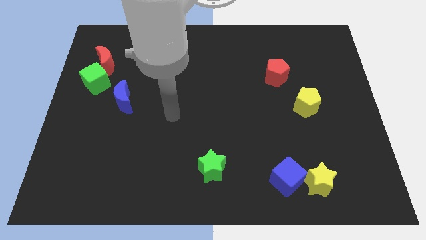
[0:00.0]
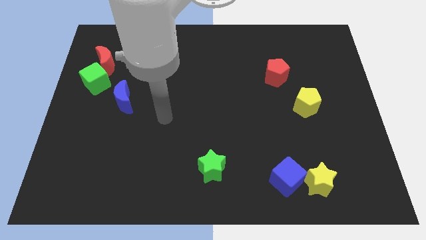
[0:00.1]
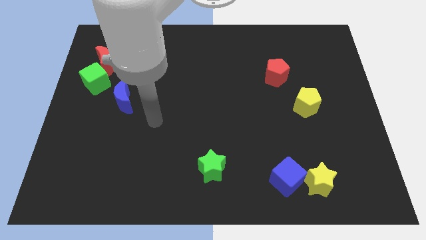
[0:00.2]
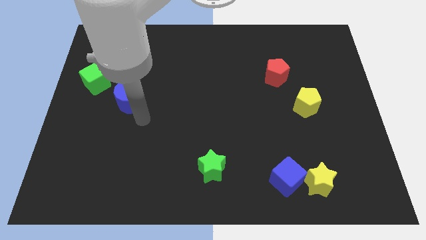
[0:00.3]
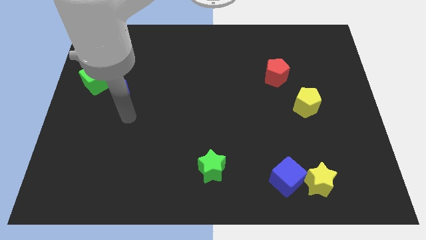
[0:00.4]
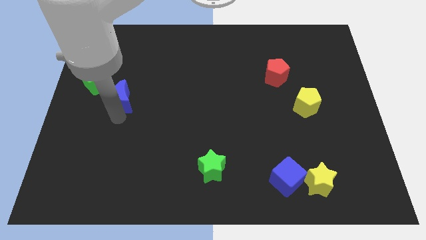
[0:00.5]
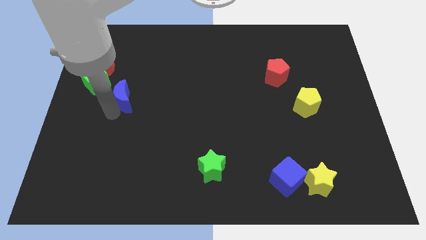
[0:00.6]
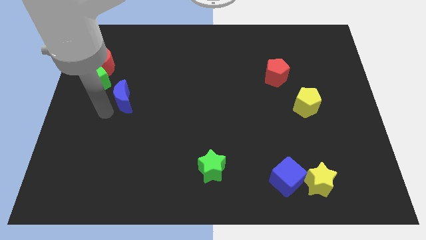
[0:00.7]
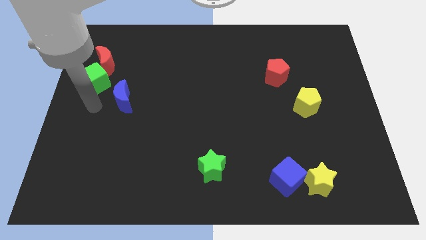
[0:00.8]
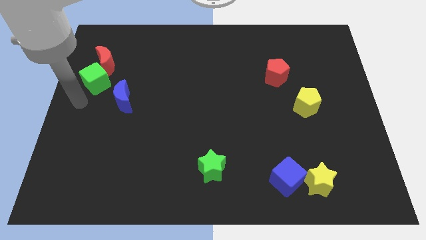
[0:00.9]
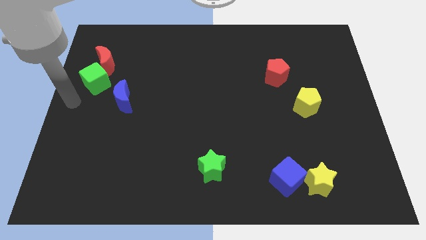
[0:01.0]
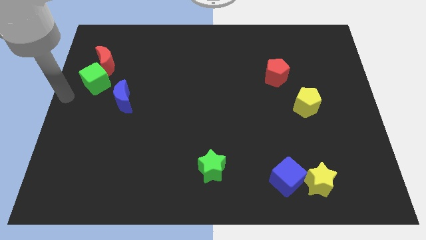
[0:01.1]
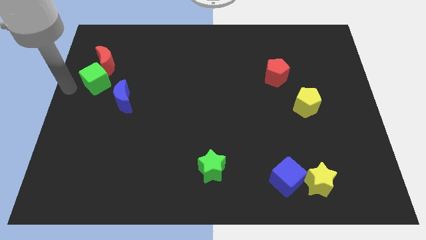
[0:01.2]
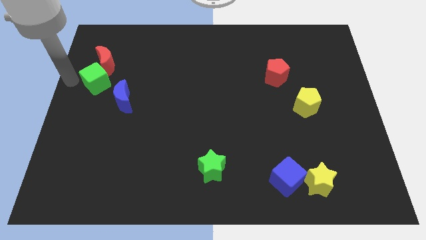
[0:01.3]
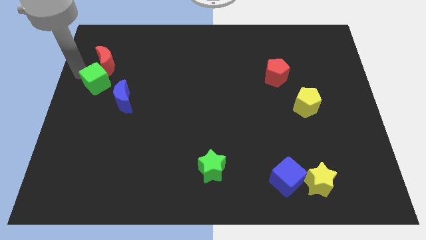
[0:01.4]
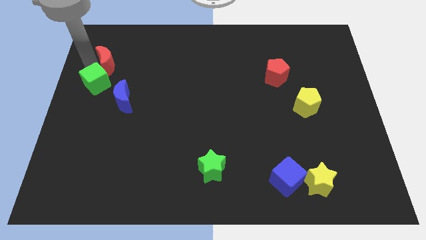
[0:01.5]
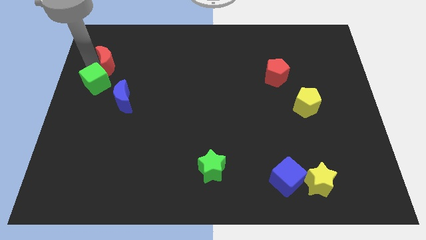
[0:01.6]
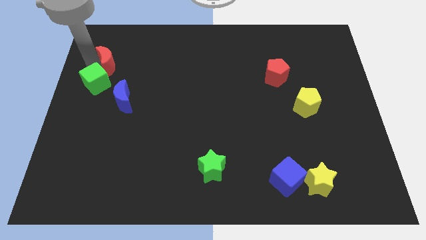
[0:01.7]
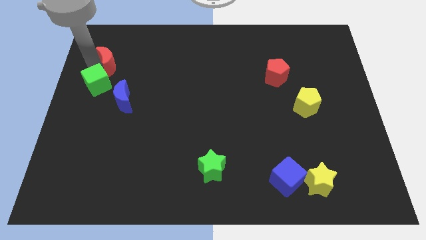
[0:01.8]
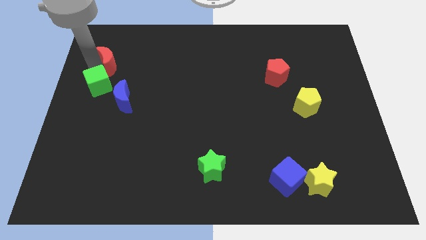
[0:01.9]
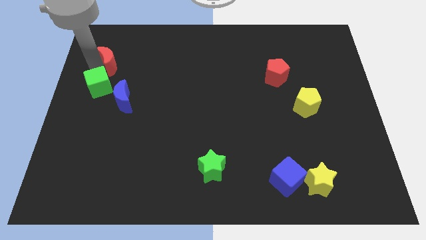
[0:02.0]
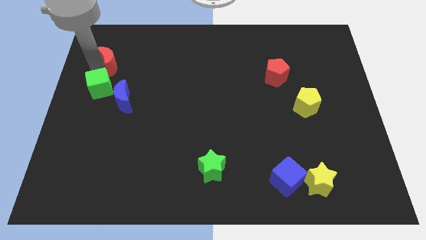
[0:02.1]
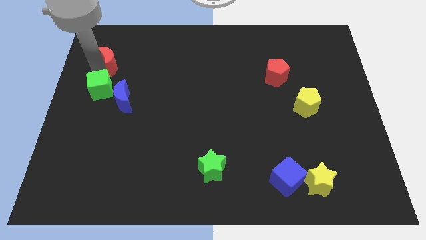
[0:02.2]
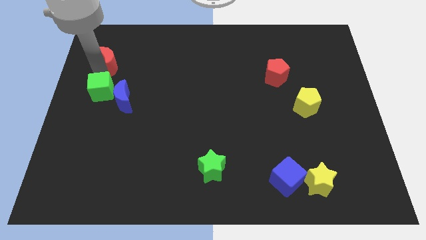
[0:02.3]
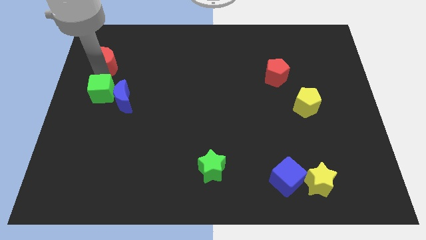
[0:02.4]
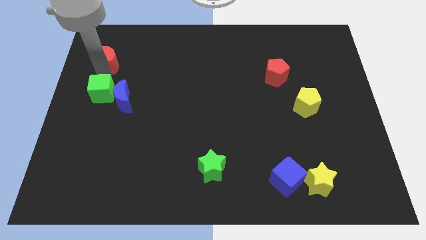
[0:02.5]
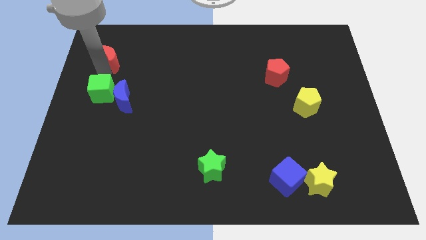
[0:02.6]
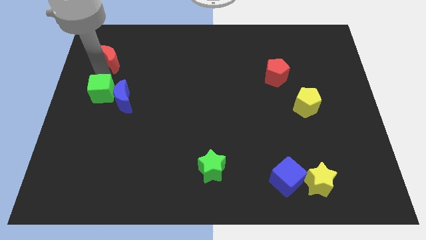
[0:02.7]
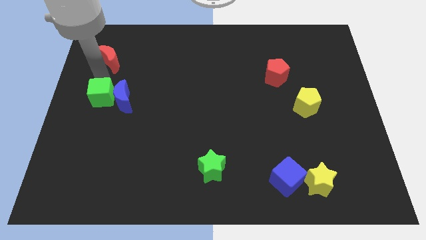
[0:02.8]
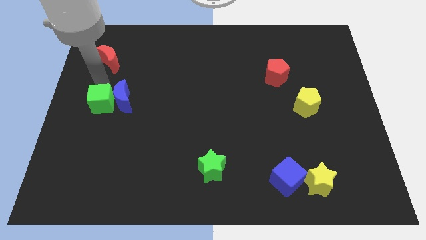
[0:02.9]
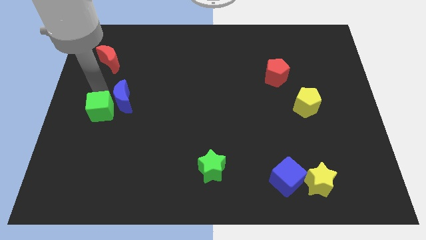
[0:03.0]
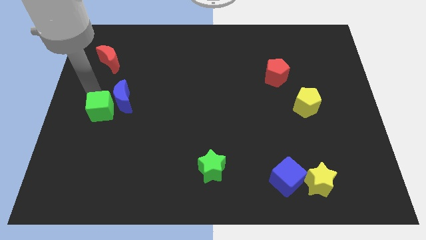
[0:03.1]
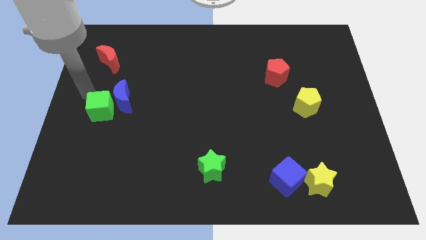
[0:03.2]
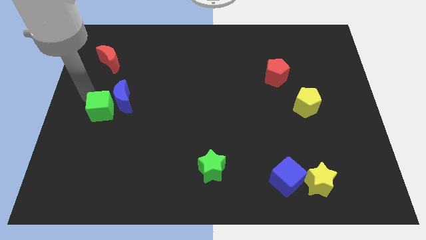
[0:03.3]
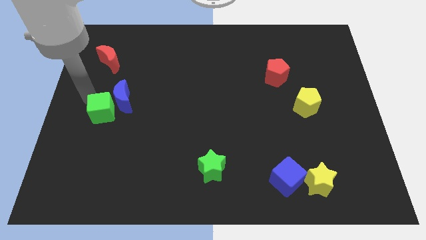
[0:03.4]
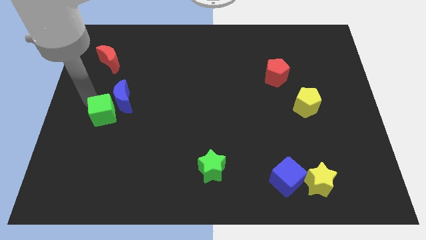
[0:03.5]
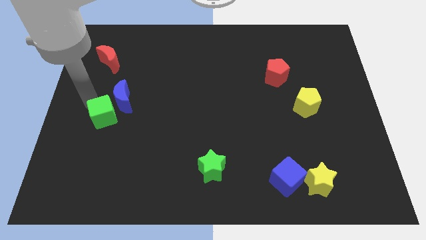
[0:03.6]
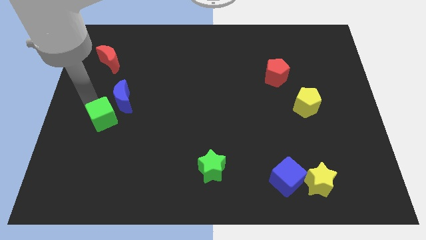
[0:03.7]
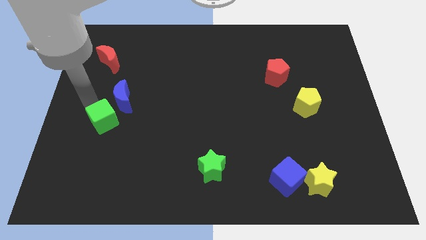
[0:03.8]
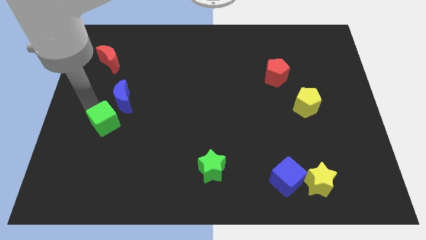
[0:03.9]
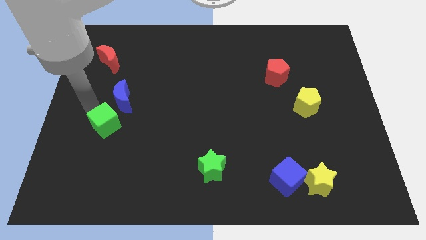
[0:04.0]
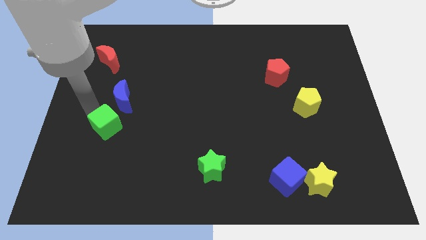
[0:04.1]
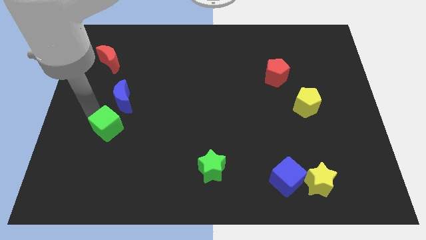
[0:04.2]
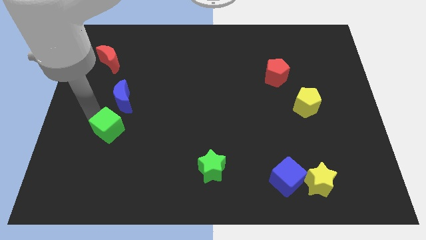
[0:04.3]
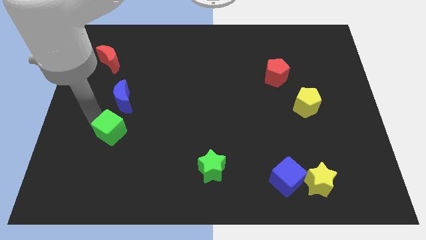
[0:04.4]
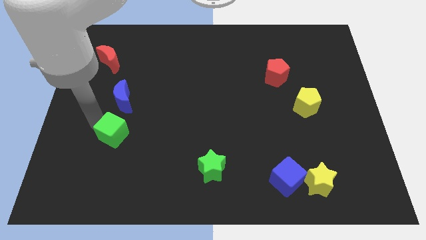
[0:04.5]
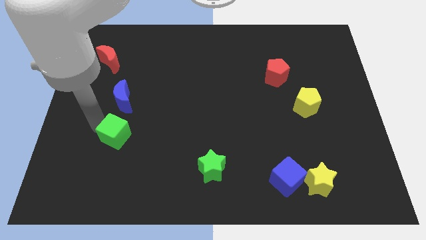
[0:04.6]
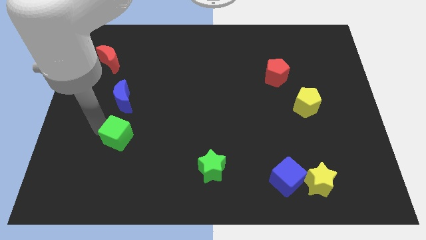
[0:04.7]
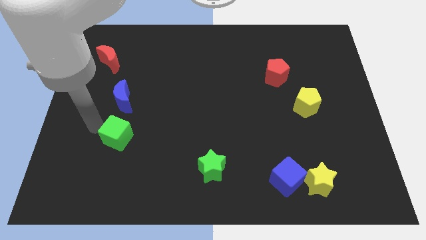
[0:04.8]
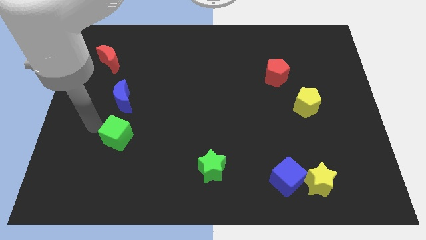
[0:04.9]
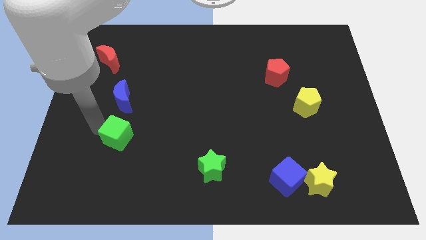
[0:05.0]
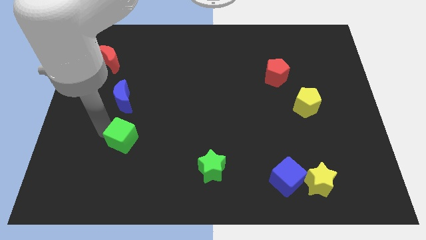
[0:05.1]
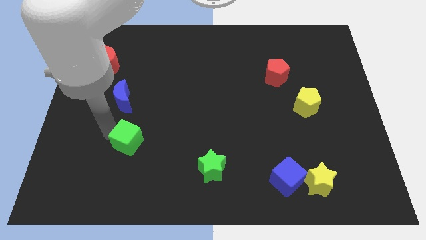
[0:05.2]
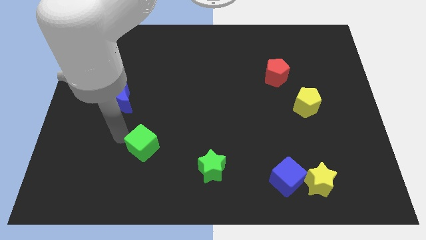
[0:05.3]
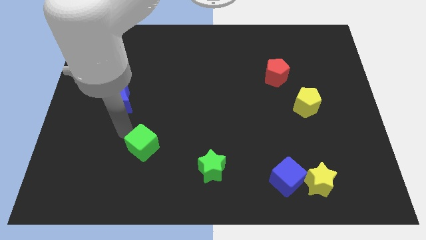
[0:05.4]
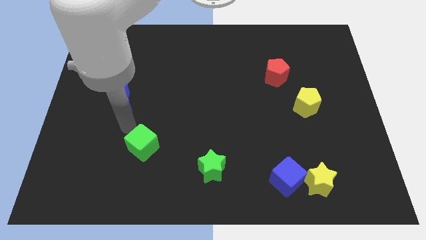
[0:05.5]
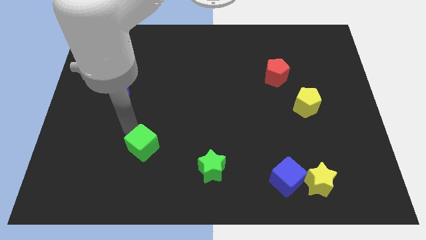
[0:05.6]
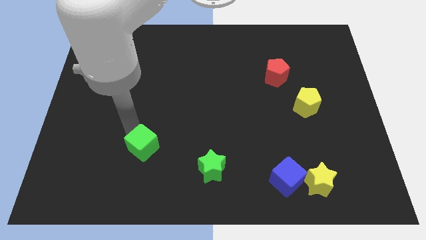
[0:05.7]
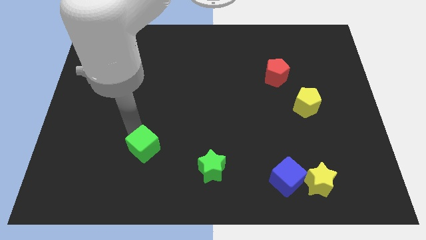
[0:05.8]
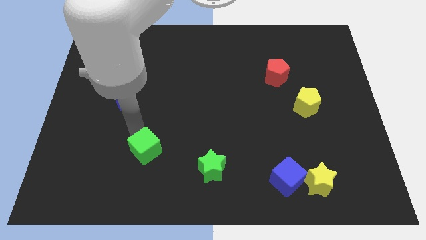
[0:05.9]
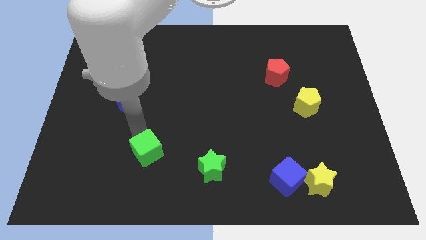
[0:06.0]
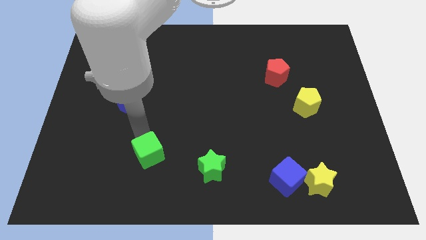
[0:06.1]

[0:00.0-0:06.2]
move the green cube left of the green star

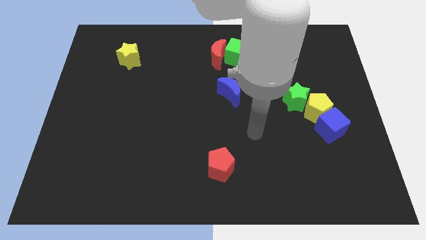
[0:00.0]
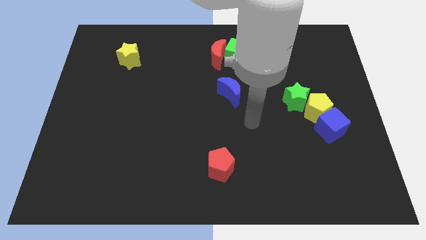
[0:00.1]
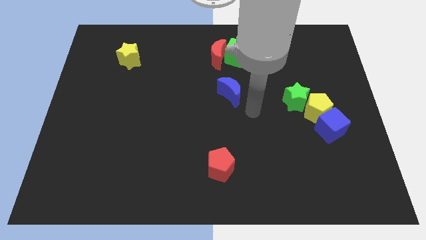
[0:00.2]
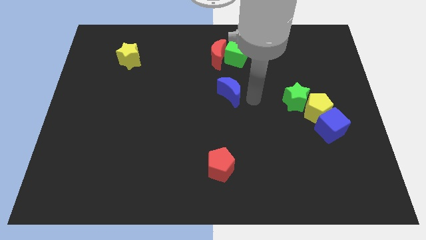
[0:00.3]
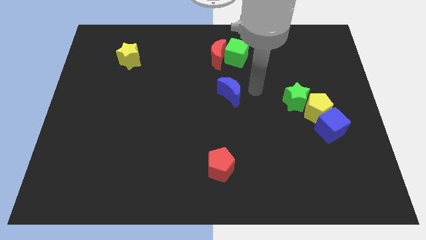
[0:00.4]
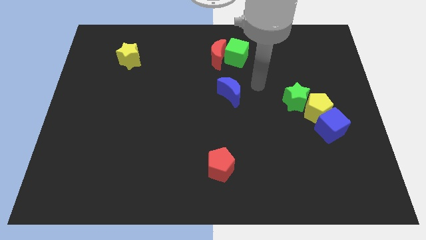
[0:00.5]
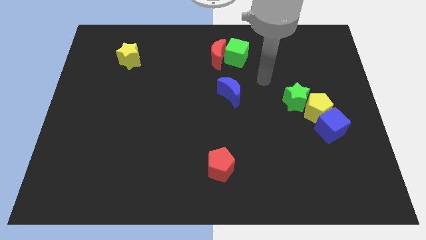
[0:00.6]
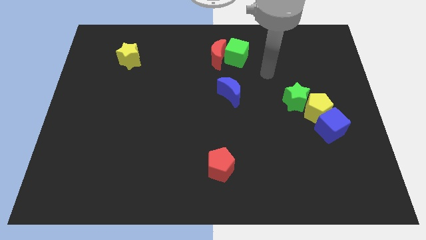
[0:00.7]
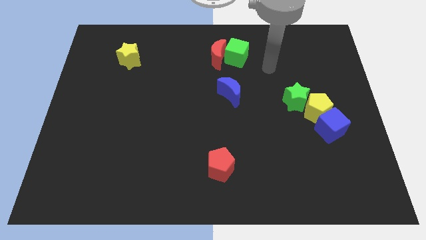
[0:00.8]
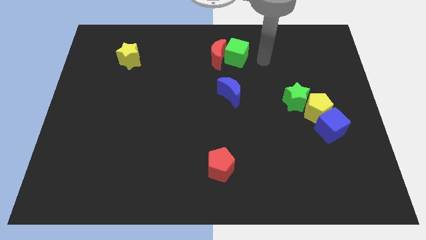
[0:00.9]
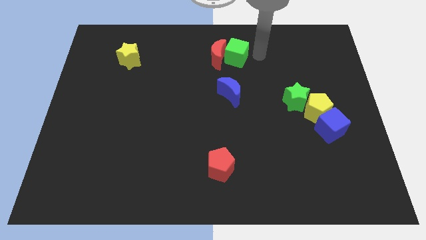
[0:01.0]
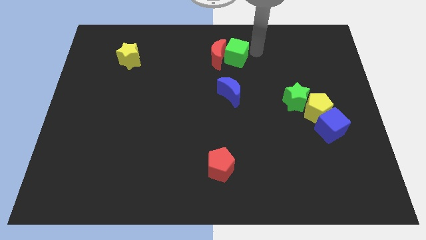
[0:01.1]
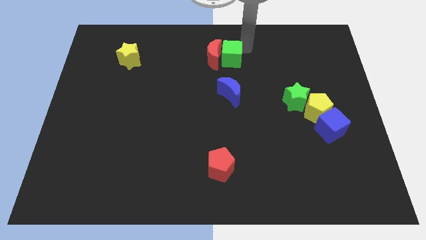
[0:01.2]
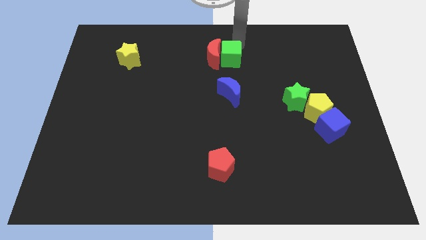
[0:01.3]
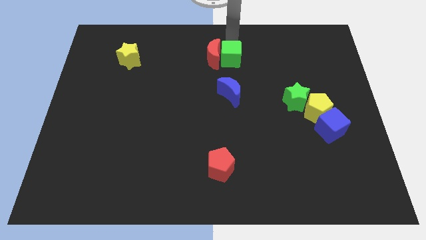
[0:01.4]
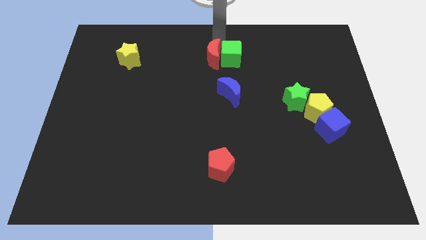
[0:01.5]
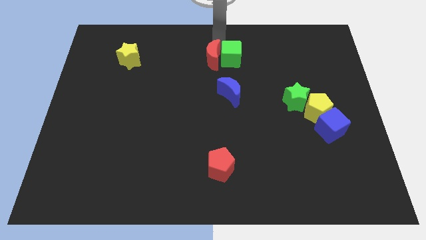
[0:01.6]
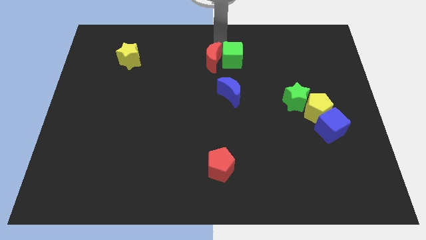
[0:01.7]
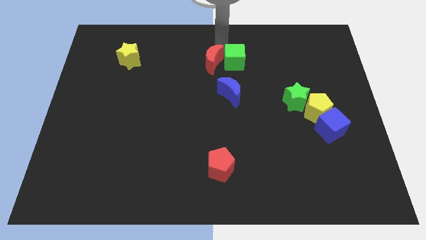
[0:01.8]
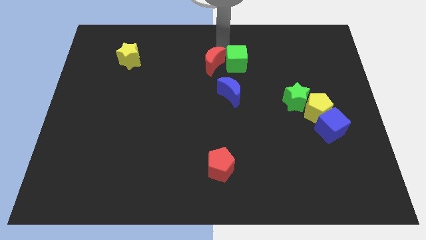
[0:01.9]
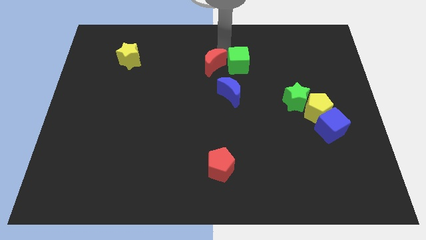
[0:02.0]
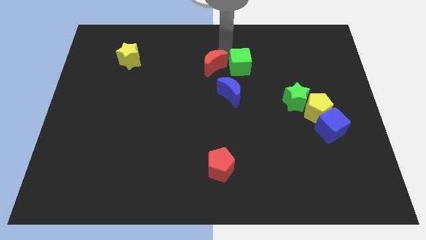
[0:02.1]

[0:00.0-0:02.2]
slide the green cube to the top right side of the blue moon
